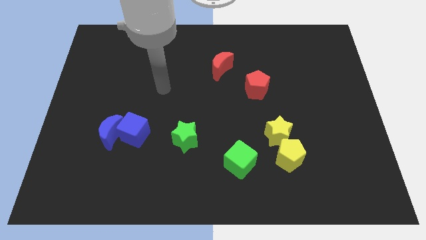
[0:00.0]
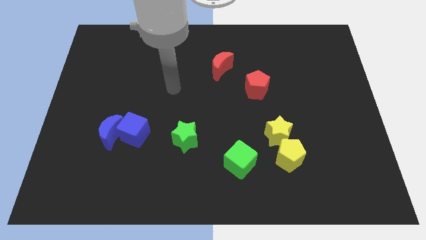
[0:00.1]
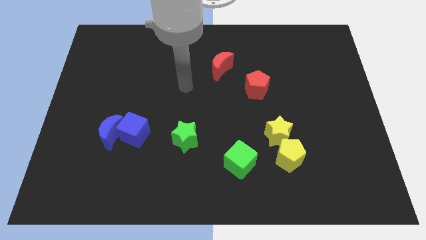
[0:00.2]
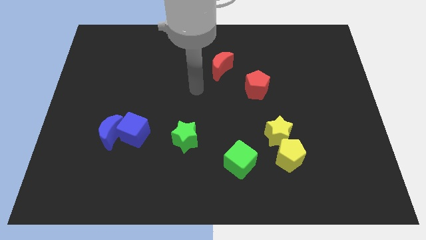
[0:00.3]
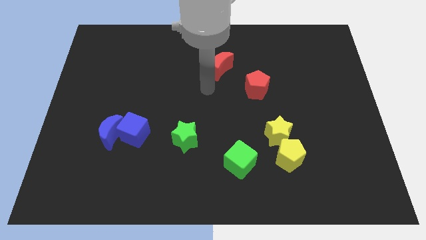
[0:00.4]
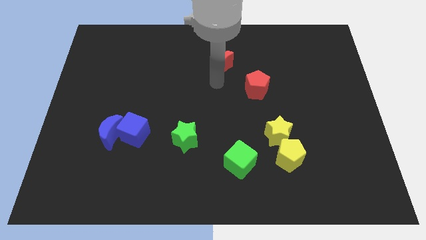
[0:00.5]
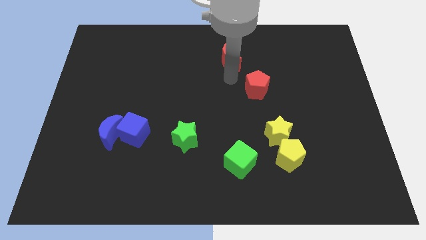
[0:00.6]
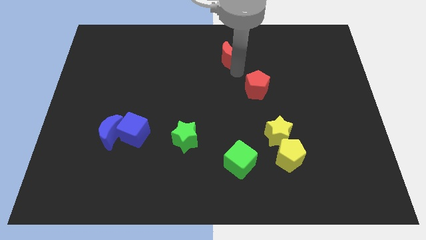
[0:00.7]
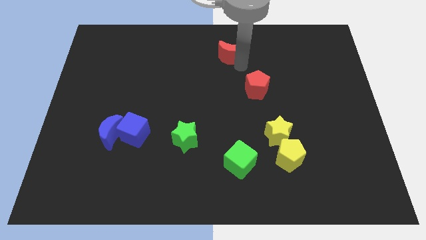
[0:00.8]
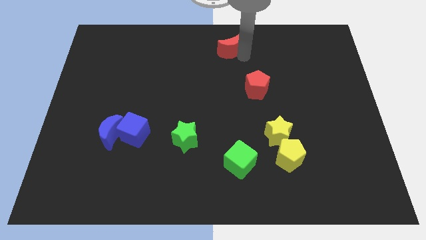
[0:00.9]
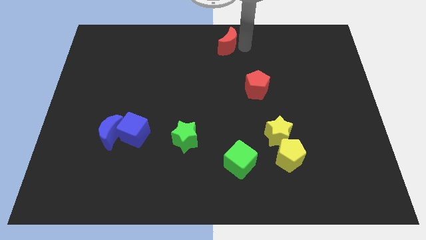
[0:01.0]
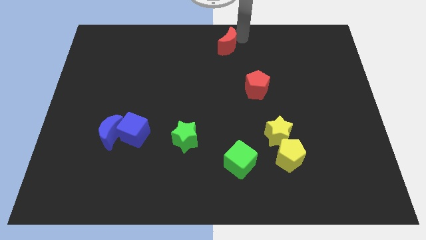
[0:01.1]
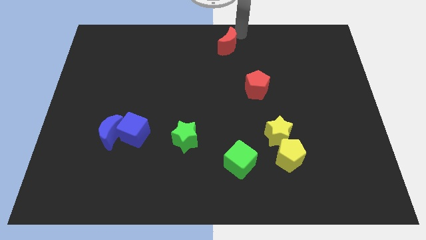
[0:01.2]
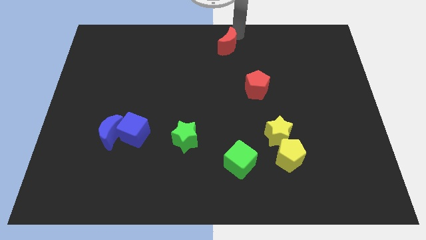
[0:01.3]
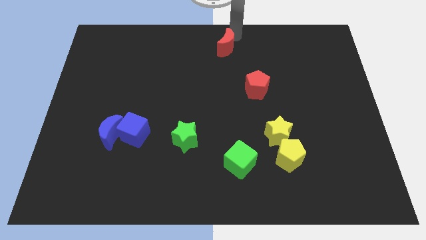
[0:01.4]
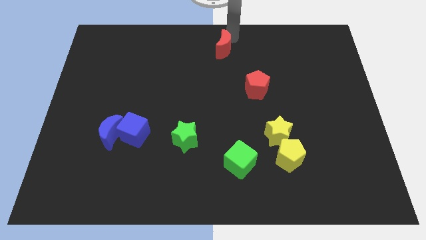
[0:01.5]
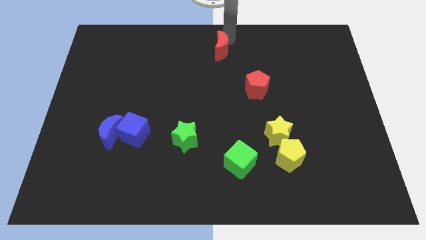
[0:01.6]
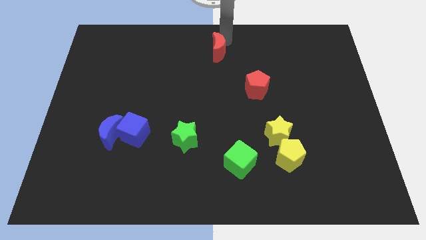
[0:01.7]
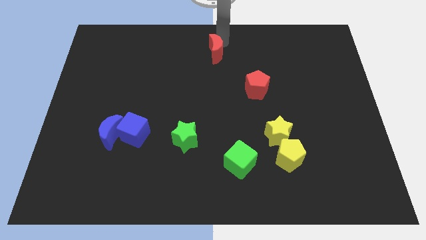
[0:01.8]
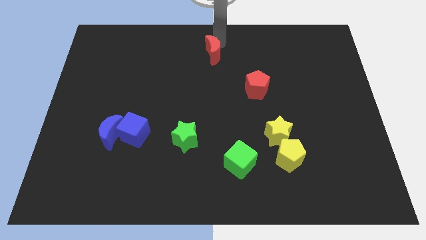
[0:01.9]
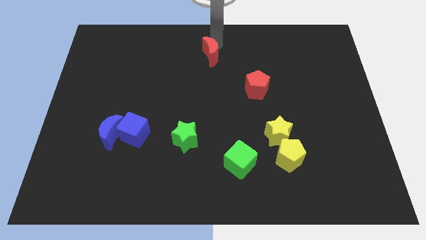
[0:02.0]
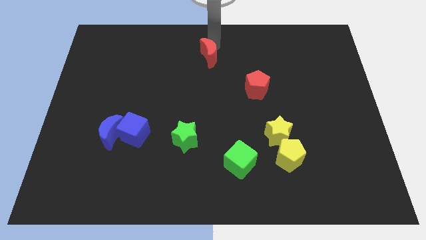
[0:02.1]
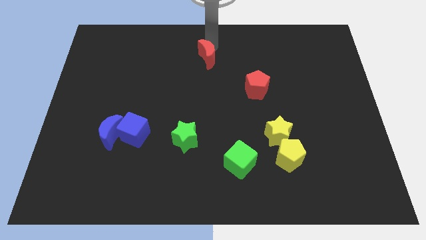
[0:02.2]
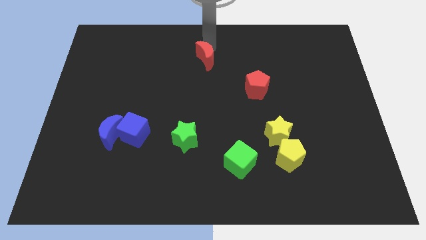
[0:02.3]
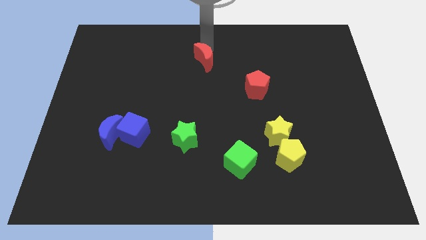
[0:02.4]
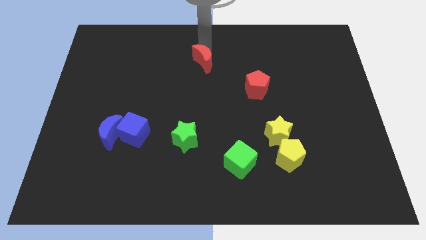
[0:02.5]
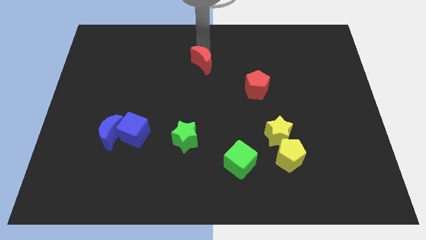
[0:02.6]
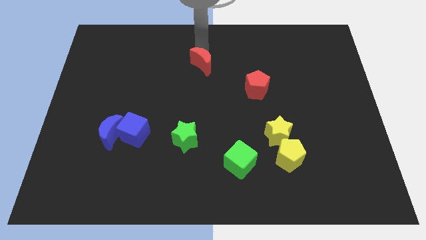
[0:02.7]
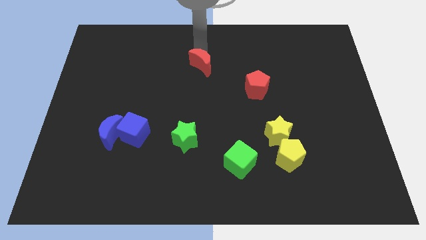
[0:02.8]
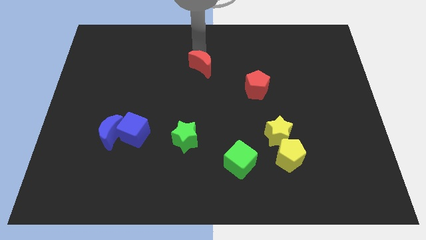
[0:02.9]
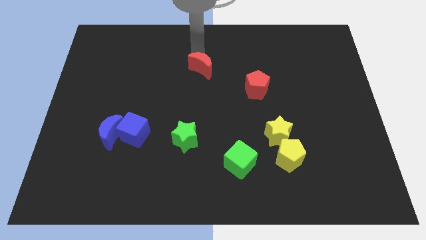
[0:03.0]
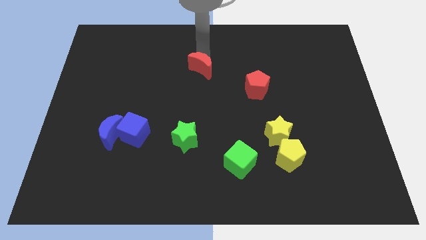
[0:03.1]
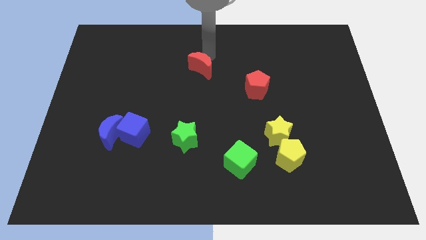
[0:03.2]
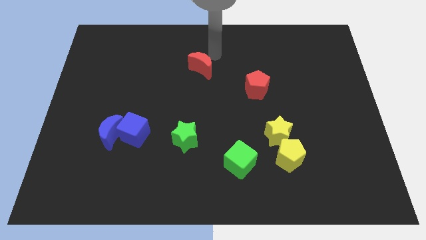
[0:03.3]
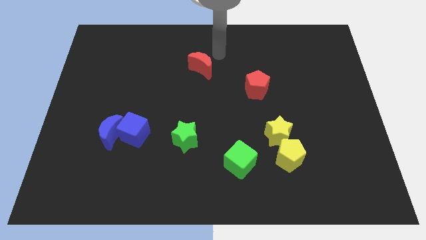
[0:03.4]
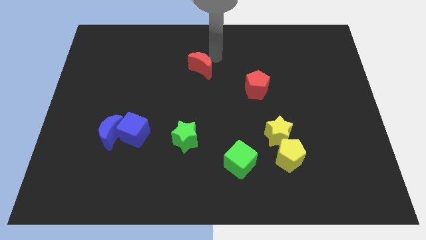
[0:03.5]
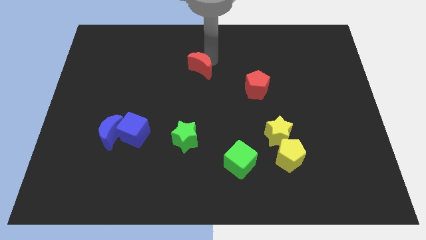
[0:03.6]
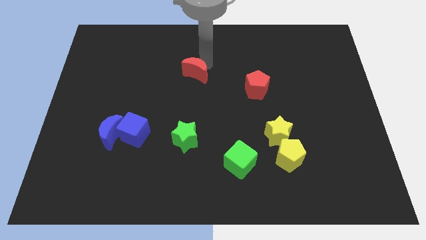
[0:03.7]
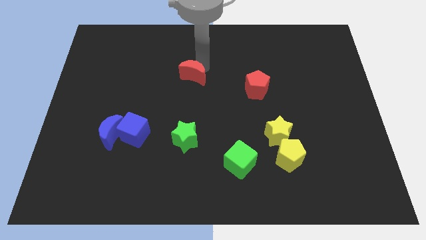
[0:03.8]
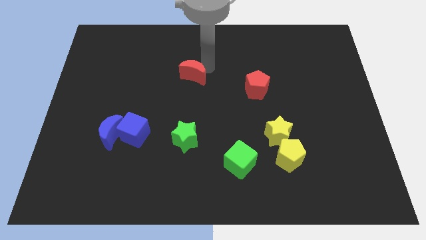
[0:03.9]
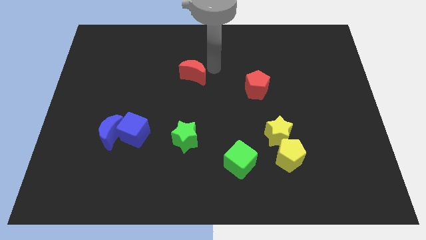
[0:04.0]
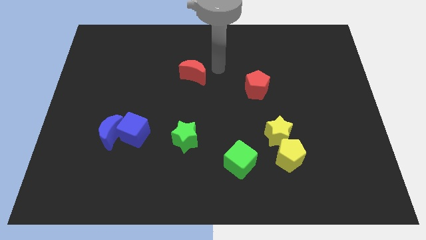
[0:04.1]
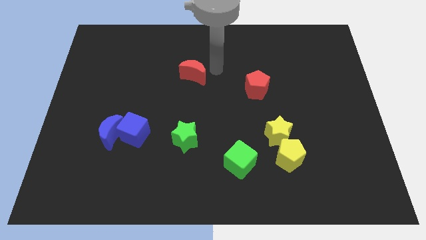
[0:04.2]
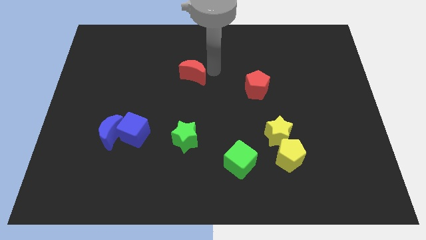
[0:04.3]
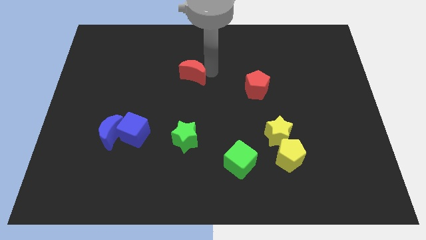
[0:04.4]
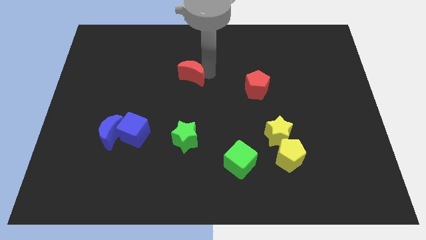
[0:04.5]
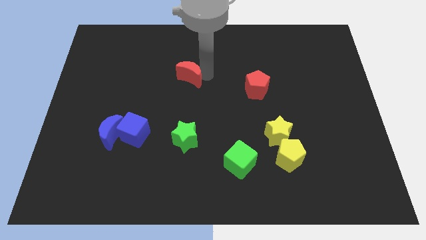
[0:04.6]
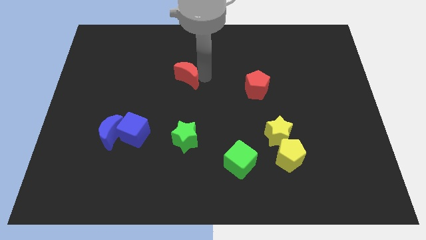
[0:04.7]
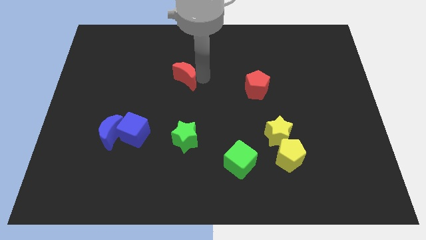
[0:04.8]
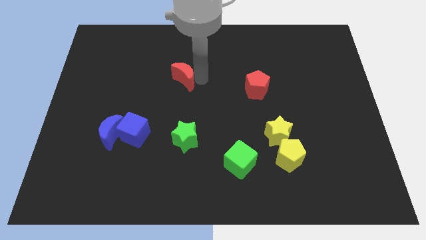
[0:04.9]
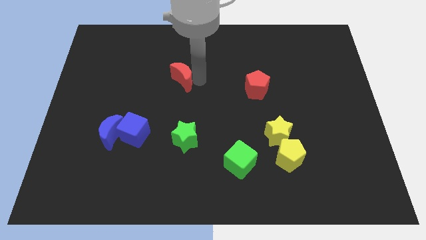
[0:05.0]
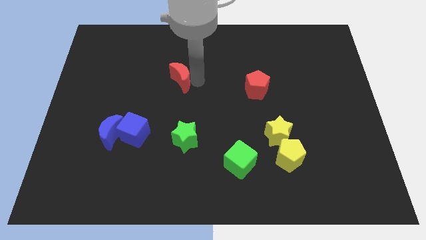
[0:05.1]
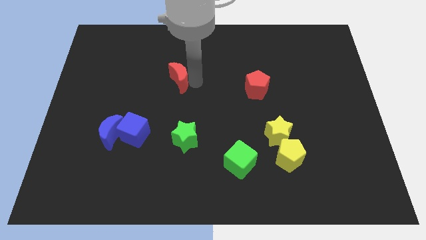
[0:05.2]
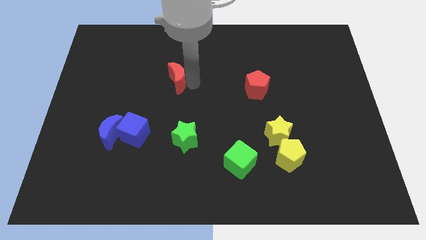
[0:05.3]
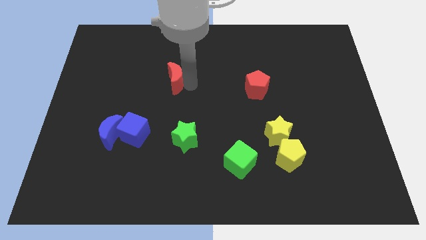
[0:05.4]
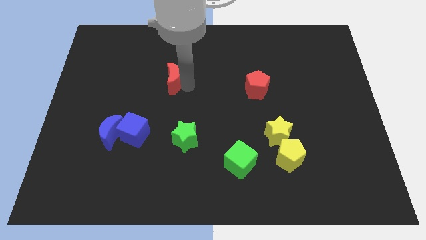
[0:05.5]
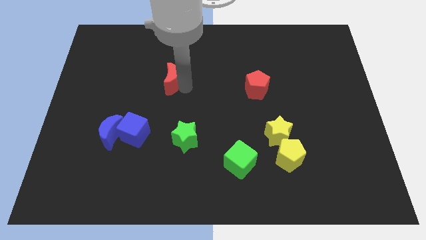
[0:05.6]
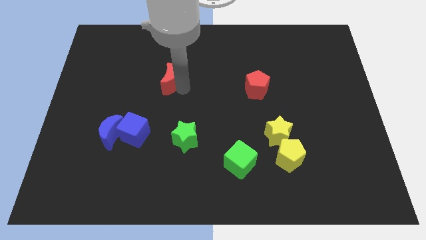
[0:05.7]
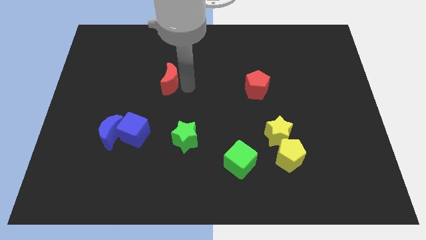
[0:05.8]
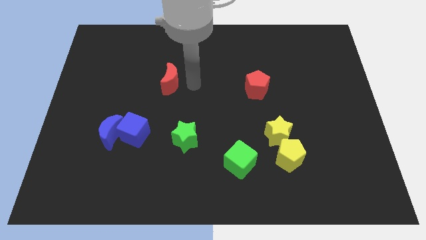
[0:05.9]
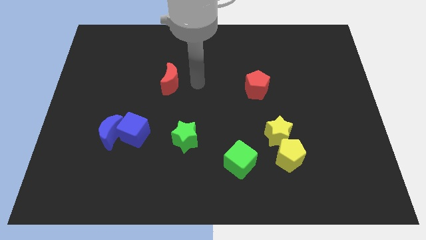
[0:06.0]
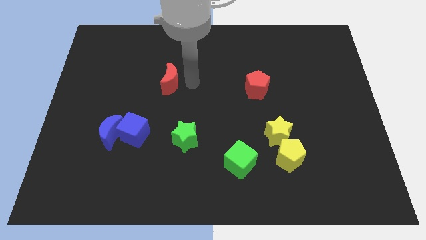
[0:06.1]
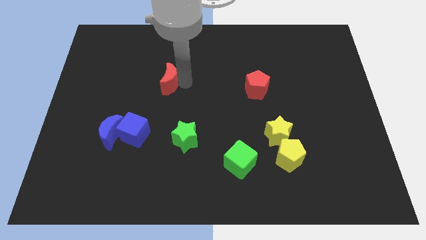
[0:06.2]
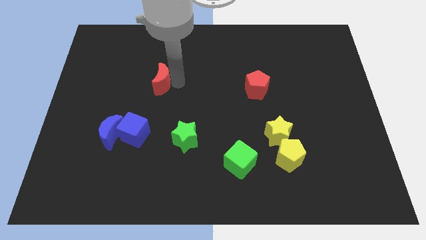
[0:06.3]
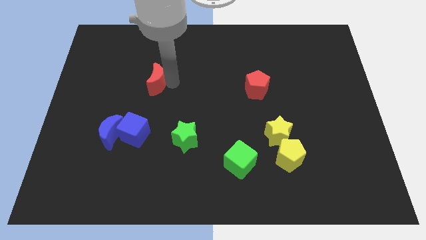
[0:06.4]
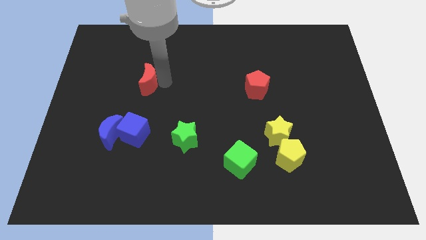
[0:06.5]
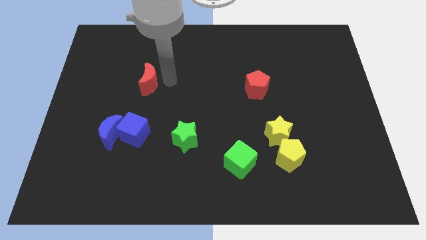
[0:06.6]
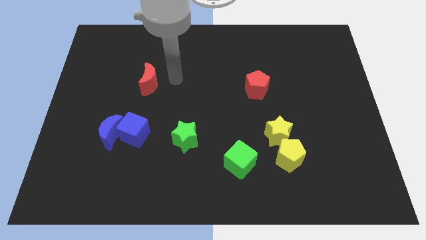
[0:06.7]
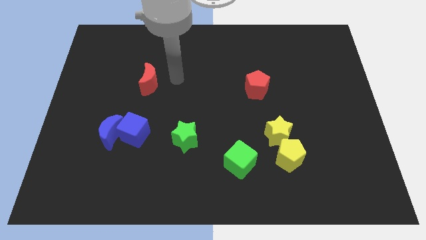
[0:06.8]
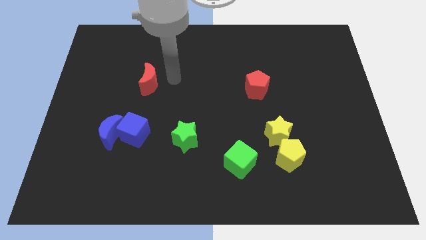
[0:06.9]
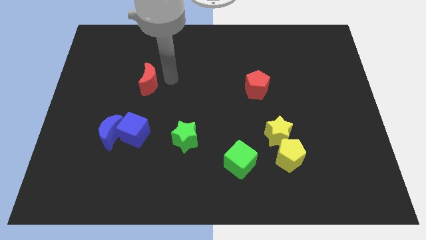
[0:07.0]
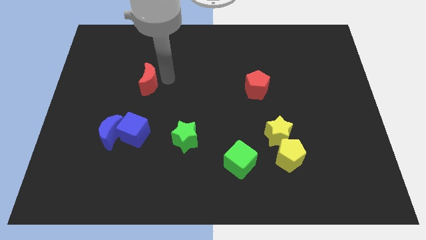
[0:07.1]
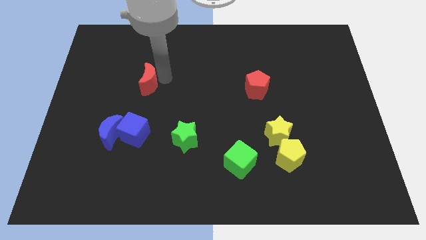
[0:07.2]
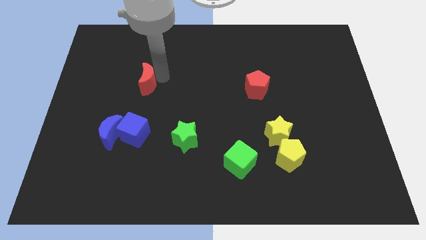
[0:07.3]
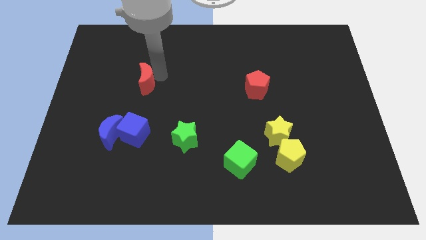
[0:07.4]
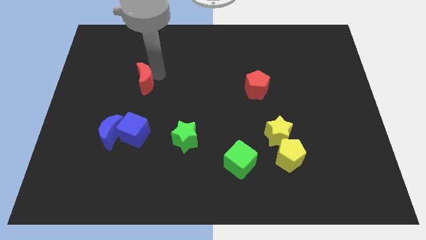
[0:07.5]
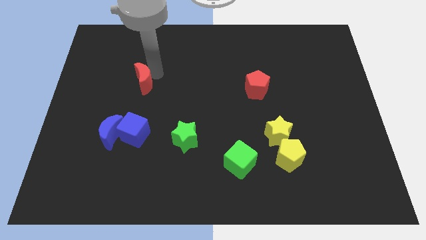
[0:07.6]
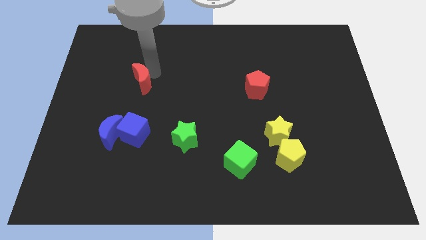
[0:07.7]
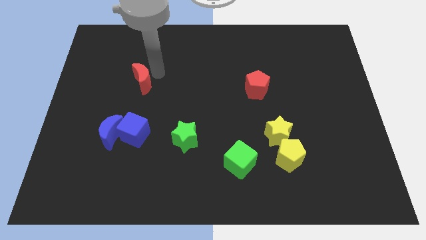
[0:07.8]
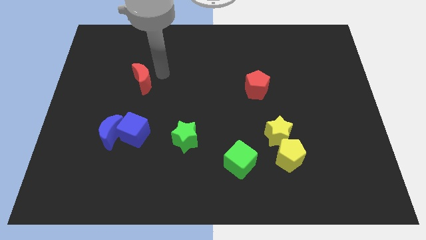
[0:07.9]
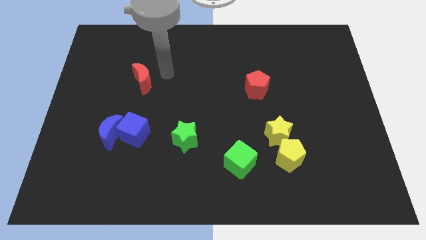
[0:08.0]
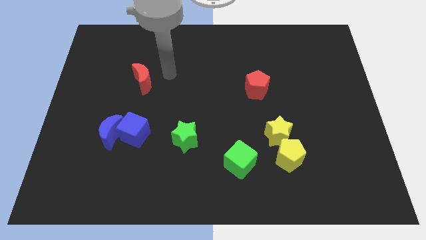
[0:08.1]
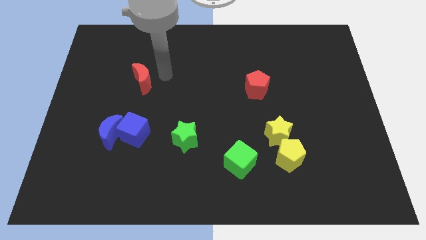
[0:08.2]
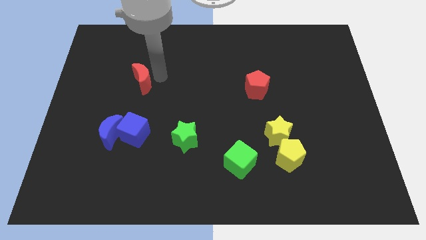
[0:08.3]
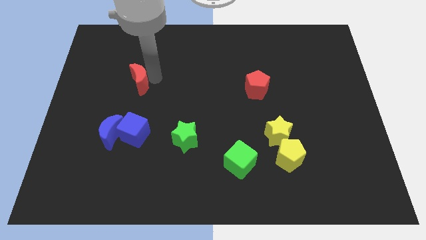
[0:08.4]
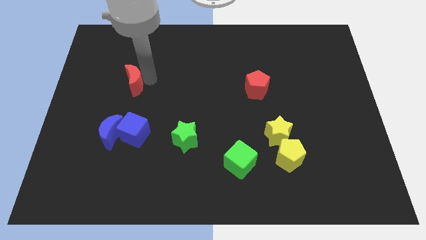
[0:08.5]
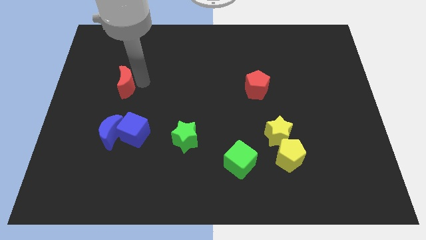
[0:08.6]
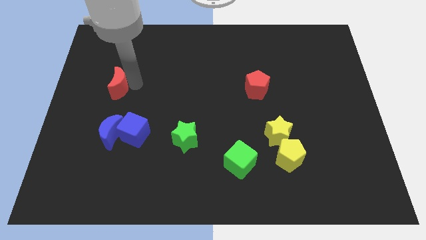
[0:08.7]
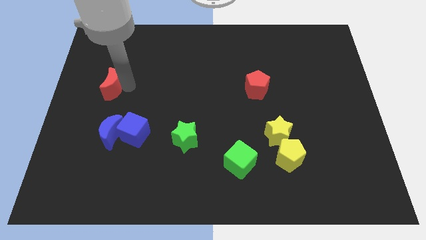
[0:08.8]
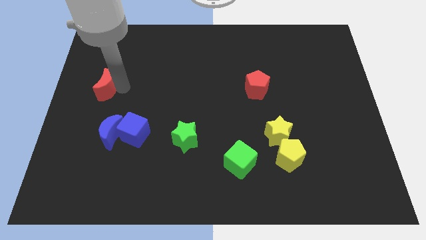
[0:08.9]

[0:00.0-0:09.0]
move the red moon to the left side of the board
